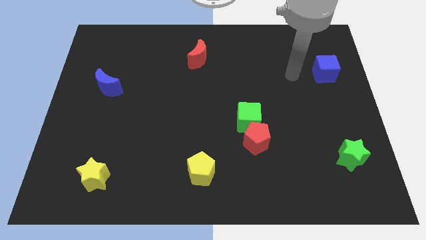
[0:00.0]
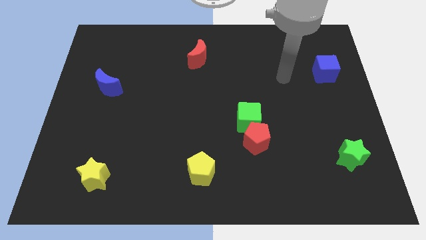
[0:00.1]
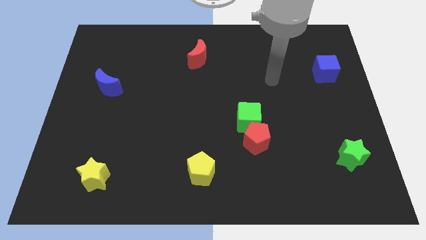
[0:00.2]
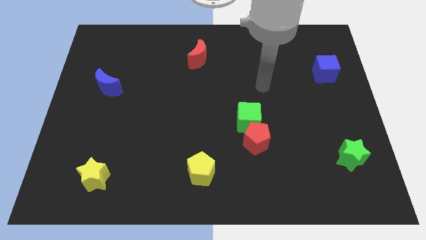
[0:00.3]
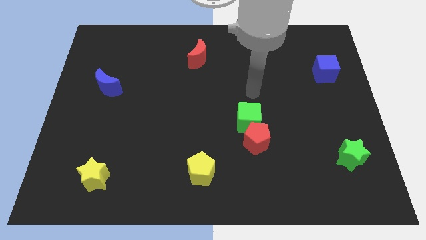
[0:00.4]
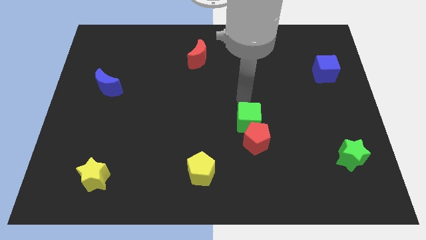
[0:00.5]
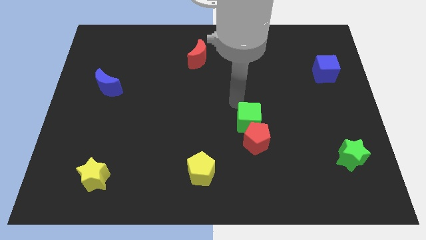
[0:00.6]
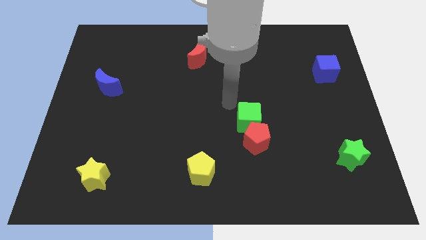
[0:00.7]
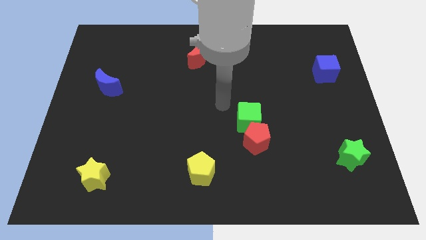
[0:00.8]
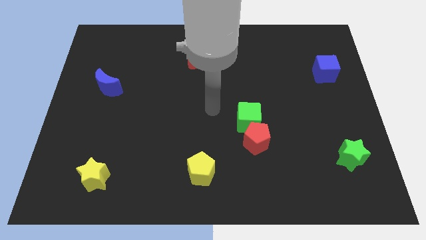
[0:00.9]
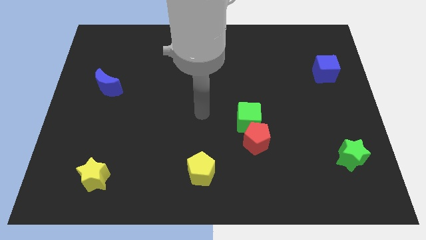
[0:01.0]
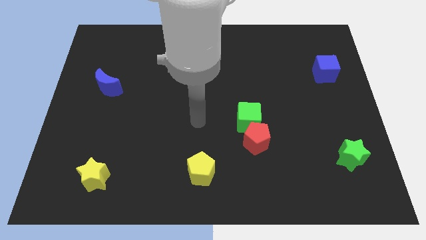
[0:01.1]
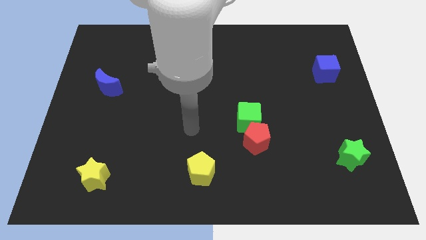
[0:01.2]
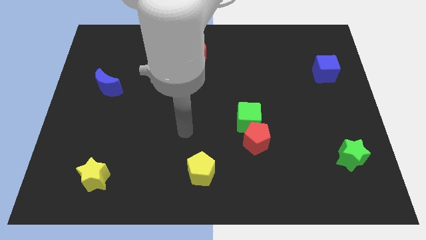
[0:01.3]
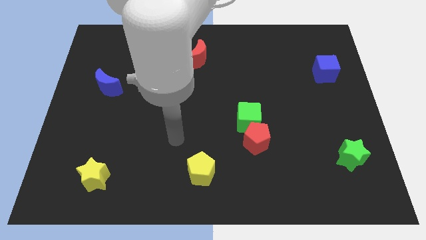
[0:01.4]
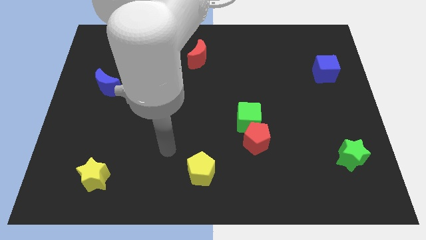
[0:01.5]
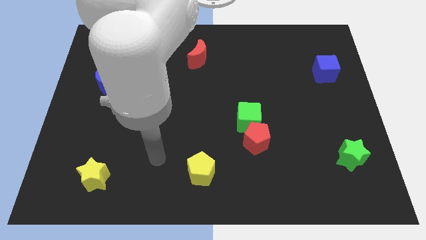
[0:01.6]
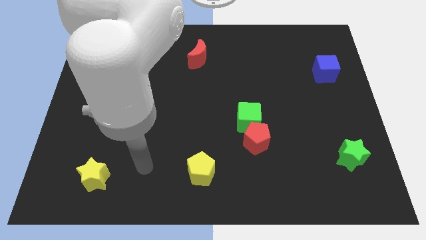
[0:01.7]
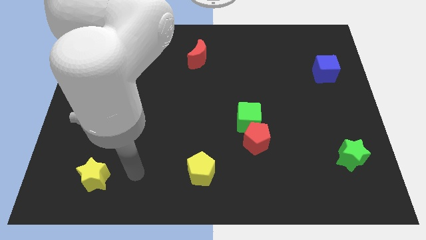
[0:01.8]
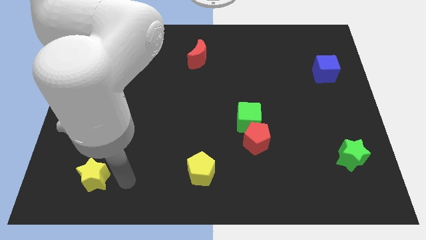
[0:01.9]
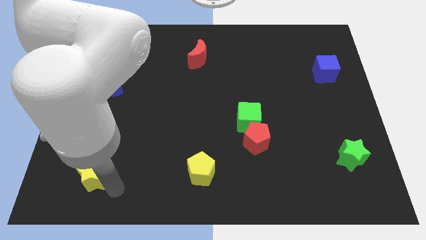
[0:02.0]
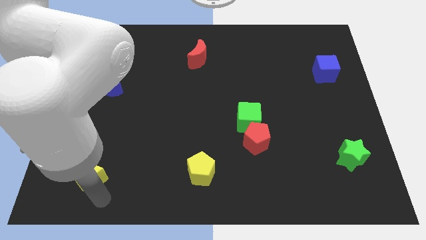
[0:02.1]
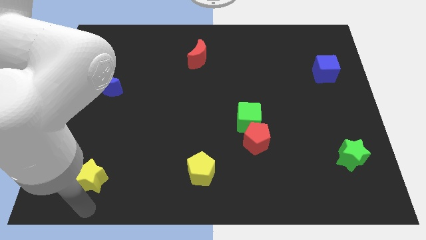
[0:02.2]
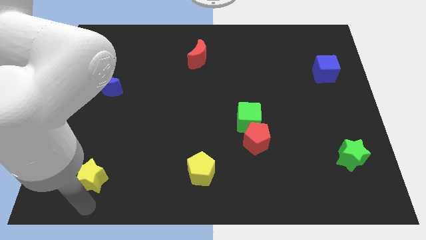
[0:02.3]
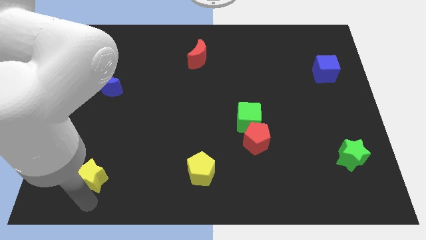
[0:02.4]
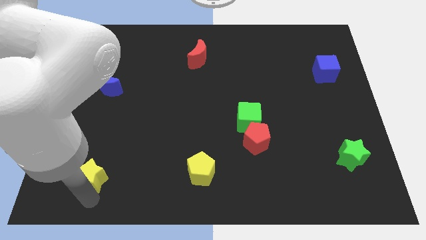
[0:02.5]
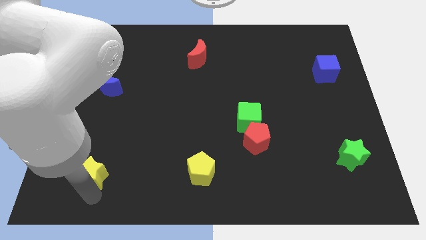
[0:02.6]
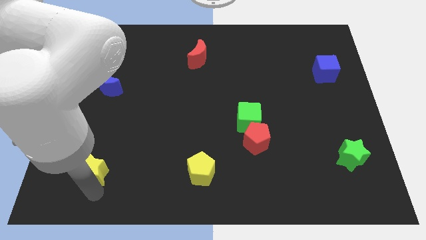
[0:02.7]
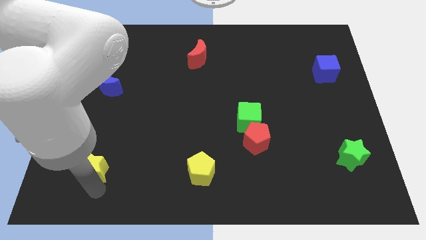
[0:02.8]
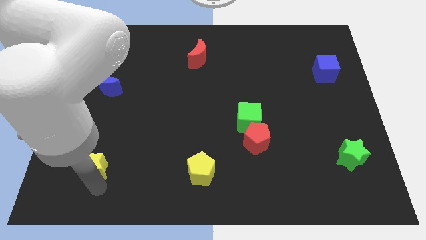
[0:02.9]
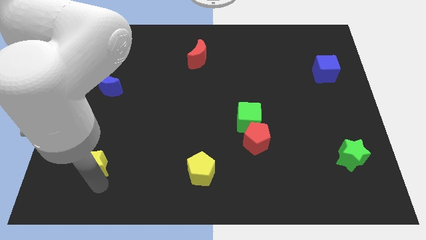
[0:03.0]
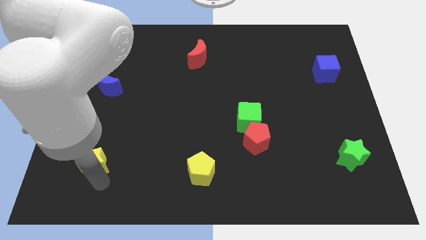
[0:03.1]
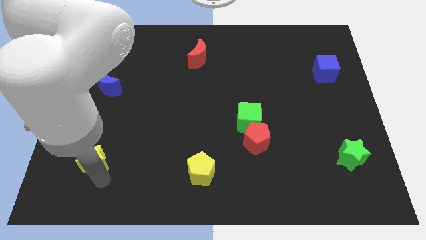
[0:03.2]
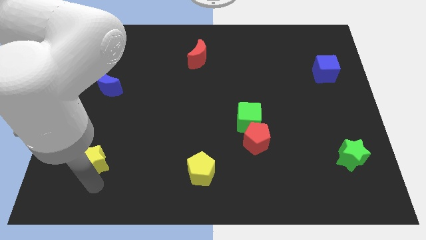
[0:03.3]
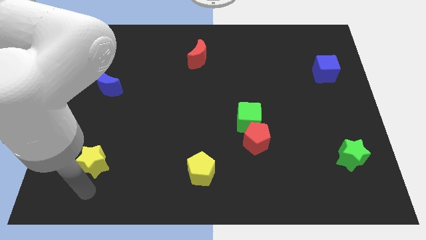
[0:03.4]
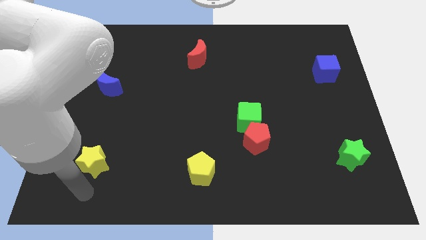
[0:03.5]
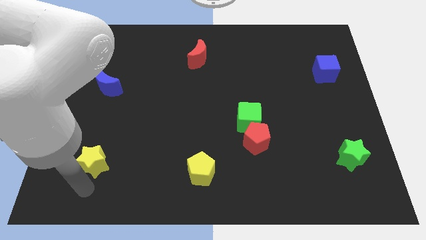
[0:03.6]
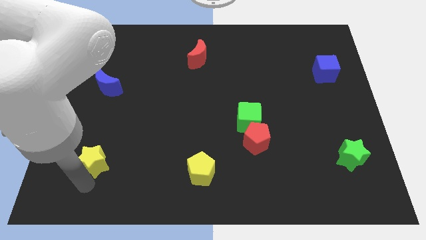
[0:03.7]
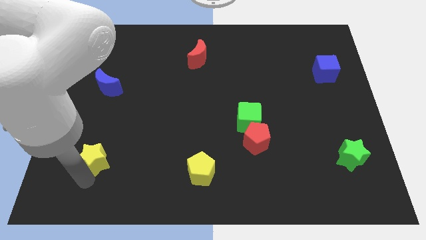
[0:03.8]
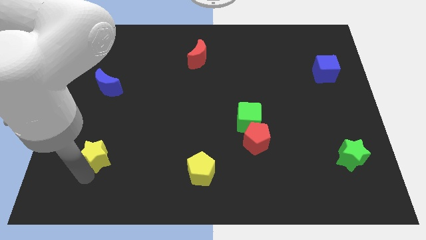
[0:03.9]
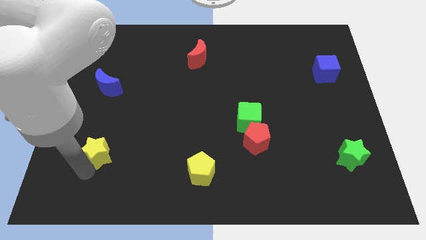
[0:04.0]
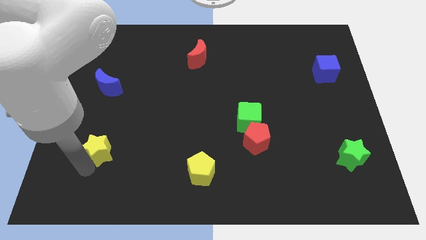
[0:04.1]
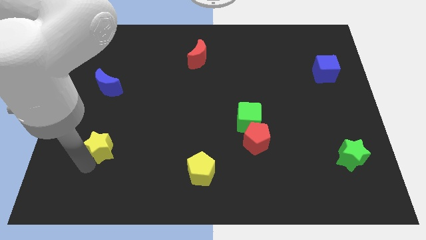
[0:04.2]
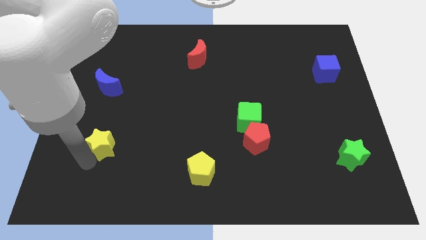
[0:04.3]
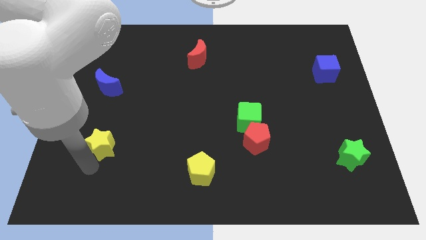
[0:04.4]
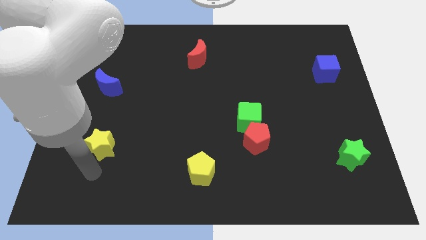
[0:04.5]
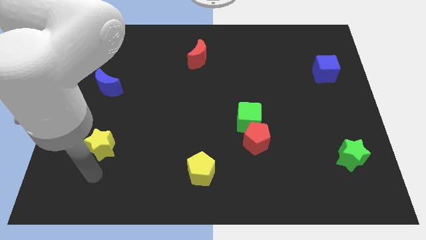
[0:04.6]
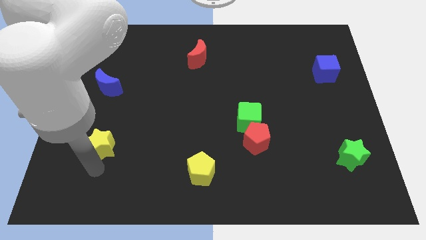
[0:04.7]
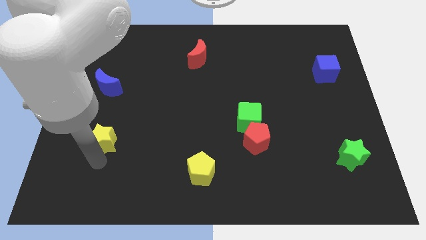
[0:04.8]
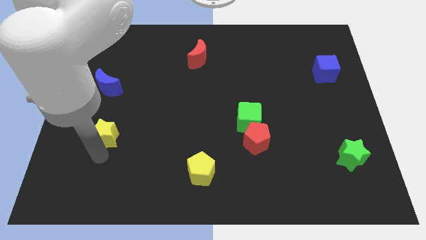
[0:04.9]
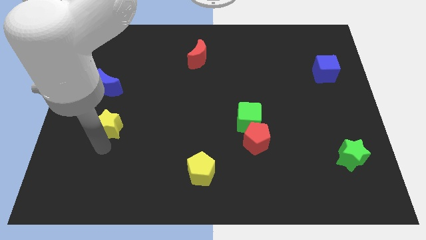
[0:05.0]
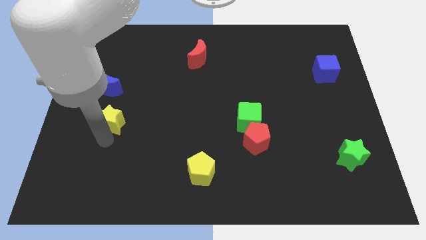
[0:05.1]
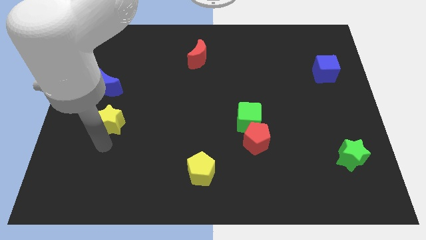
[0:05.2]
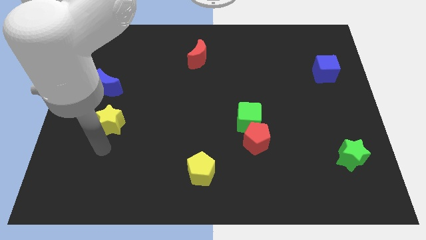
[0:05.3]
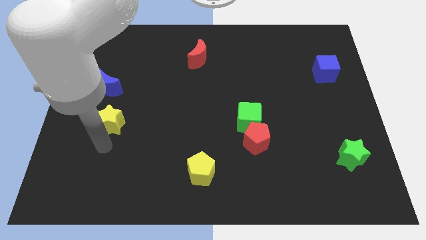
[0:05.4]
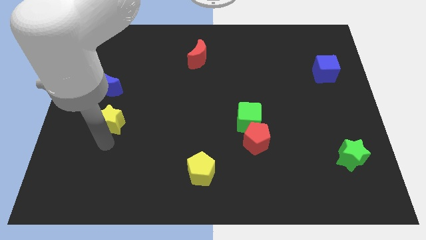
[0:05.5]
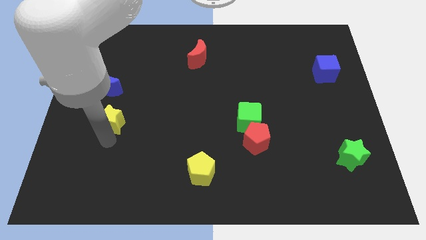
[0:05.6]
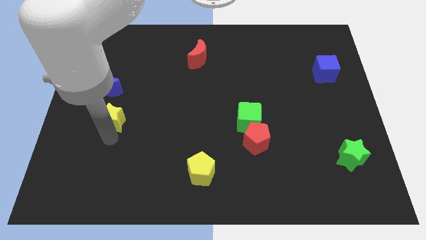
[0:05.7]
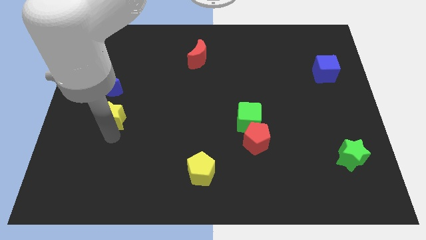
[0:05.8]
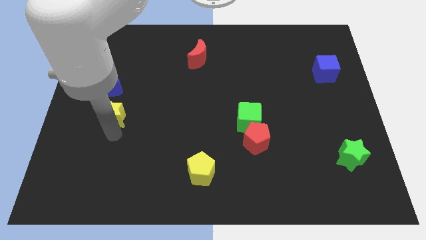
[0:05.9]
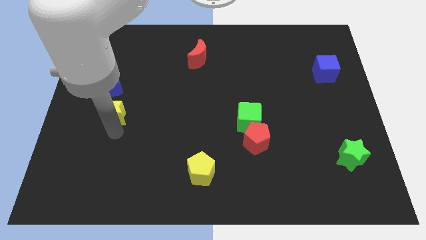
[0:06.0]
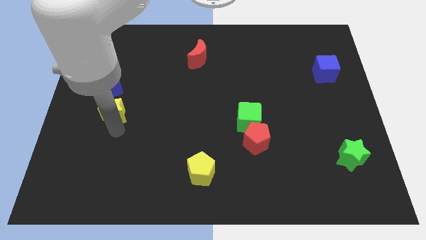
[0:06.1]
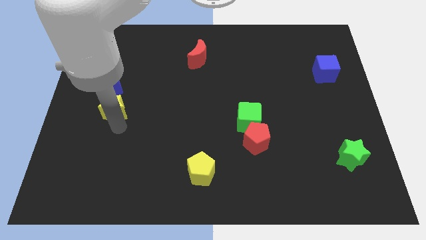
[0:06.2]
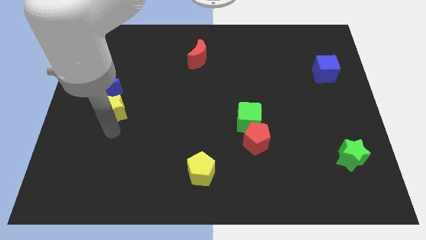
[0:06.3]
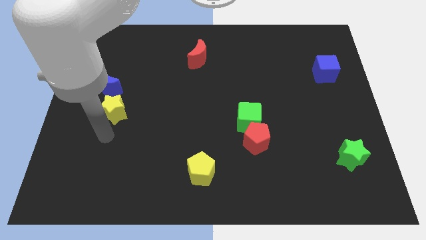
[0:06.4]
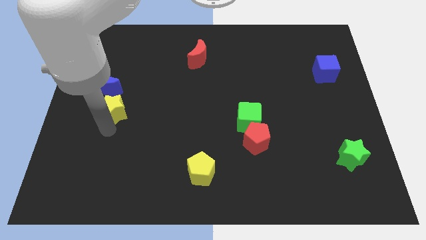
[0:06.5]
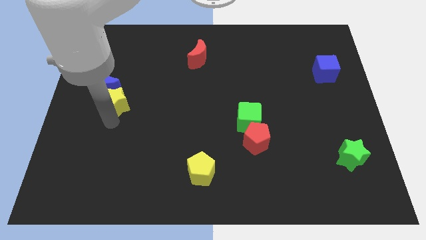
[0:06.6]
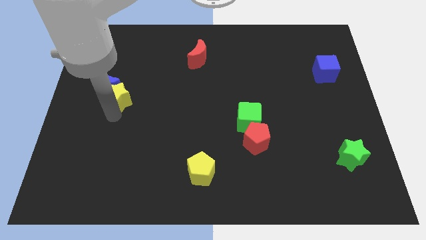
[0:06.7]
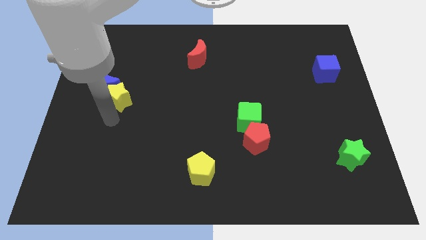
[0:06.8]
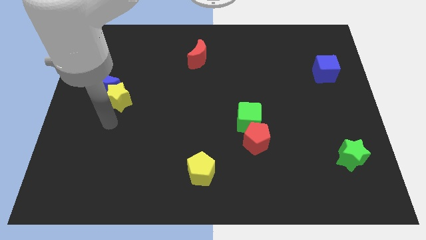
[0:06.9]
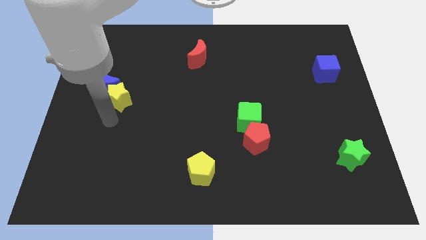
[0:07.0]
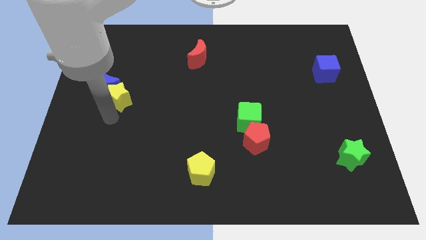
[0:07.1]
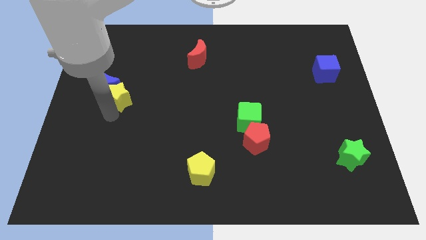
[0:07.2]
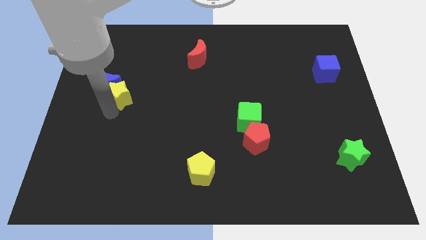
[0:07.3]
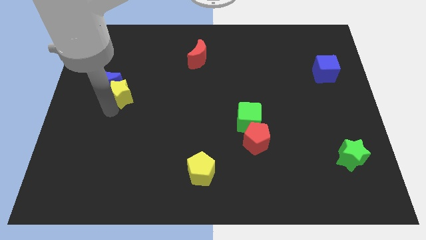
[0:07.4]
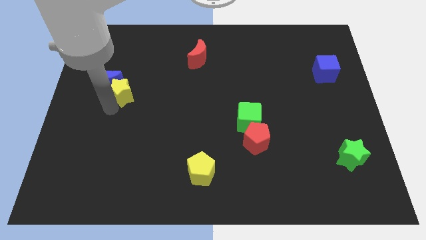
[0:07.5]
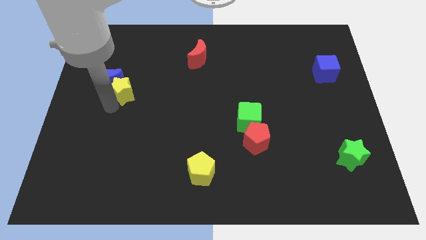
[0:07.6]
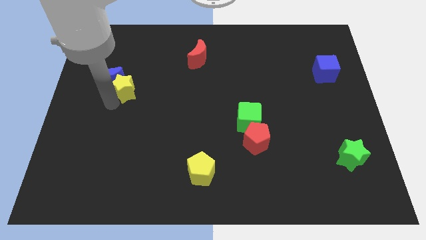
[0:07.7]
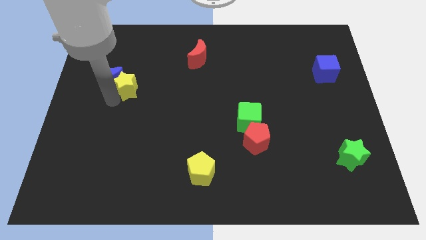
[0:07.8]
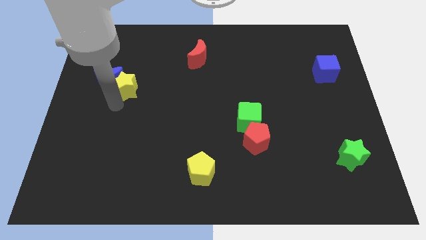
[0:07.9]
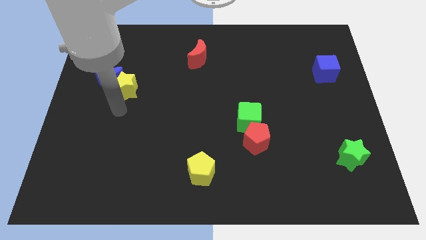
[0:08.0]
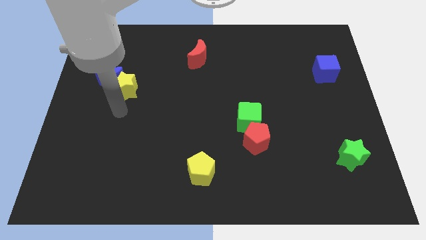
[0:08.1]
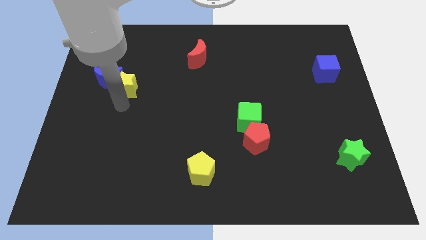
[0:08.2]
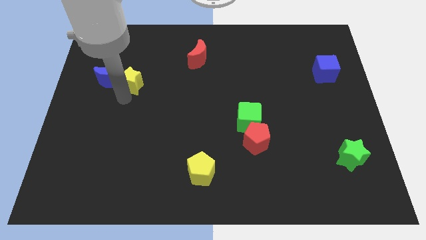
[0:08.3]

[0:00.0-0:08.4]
put the yellow star to the top right side of the blue moon
